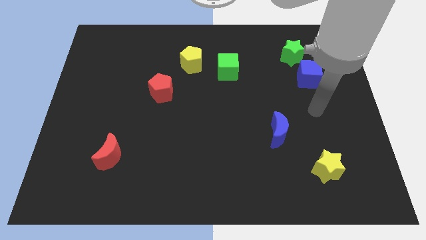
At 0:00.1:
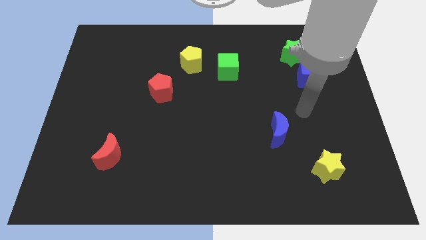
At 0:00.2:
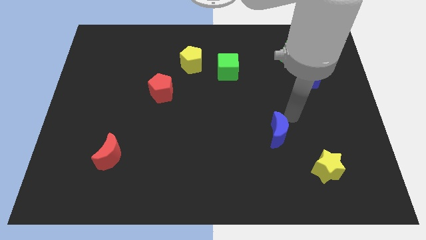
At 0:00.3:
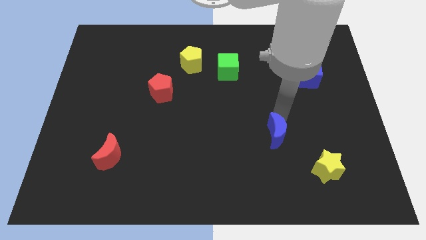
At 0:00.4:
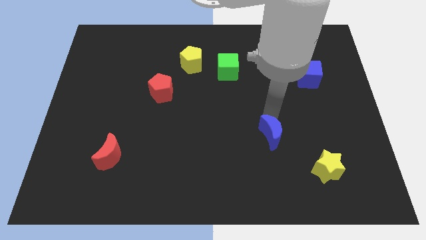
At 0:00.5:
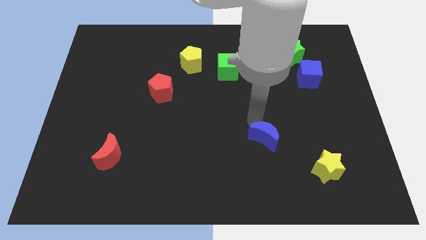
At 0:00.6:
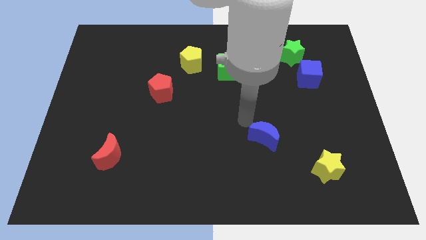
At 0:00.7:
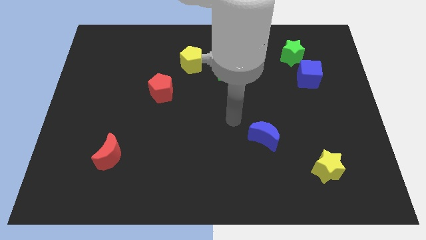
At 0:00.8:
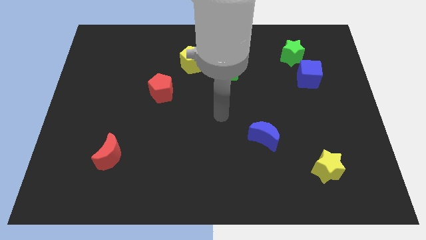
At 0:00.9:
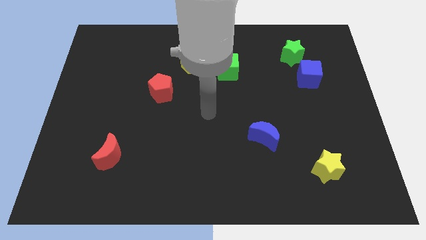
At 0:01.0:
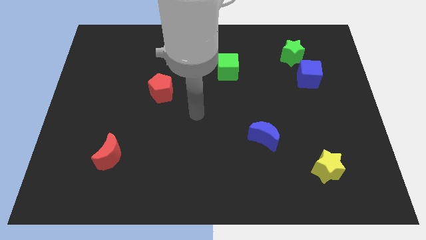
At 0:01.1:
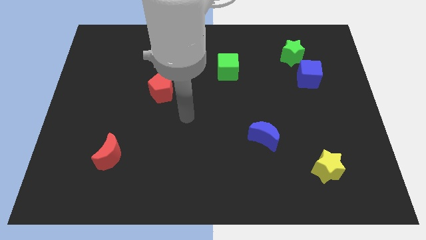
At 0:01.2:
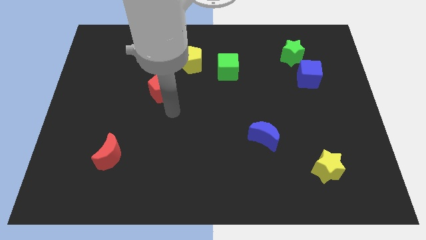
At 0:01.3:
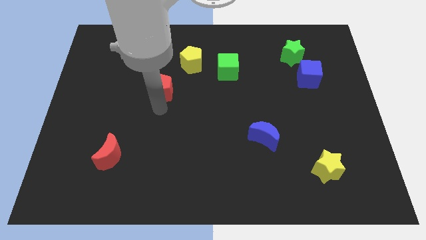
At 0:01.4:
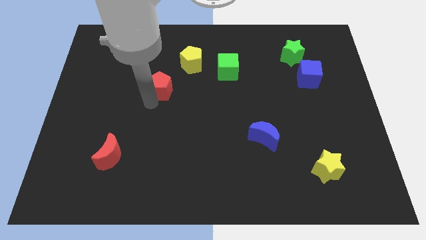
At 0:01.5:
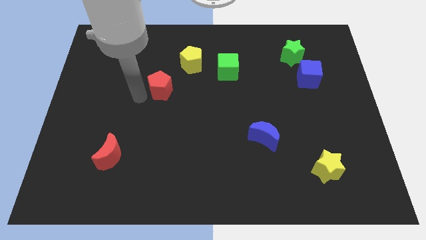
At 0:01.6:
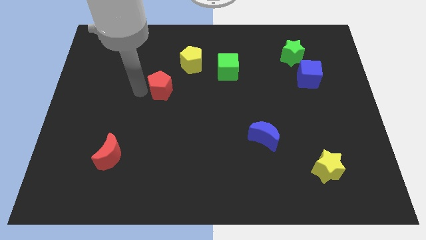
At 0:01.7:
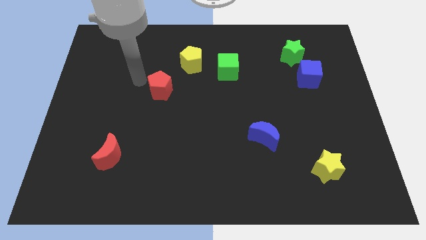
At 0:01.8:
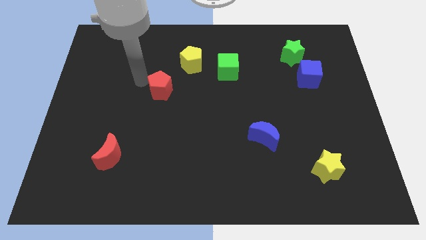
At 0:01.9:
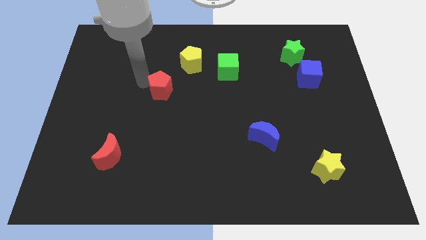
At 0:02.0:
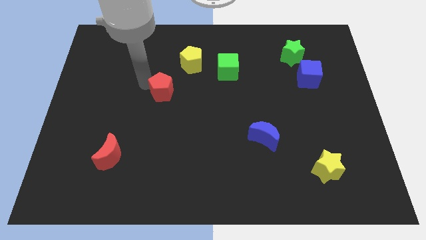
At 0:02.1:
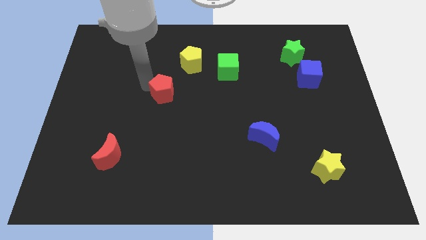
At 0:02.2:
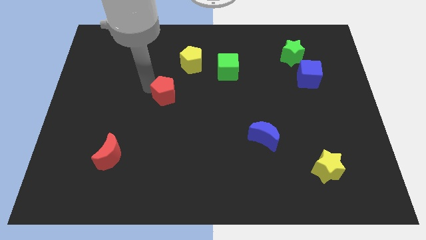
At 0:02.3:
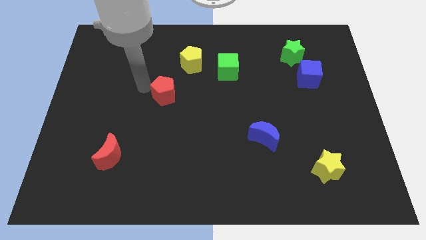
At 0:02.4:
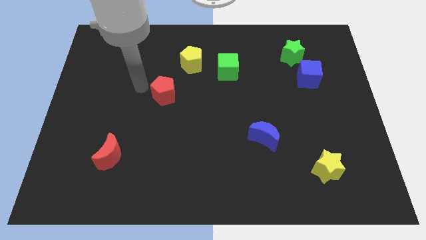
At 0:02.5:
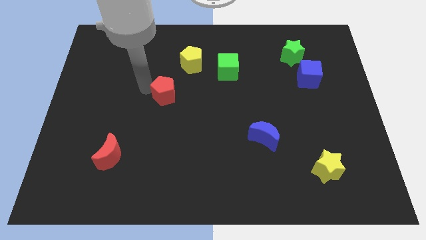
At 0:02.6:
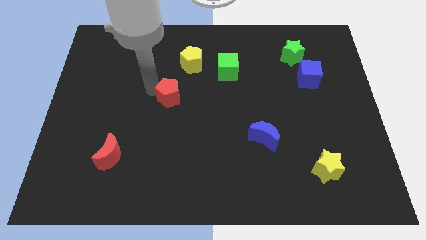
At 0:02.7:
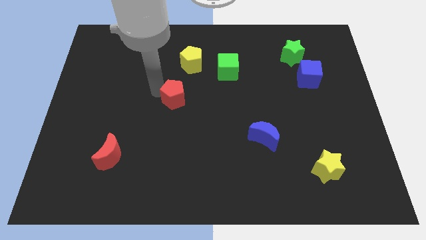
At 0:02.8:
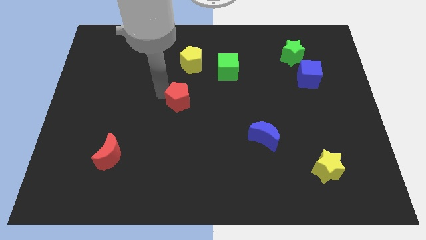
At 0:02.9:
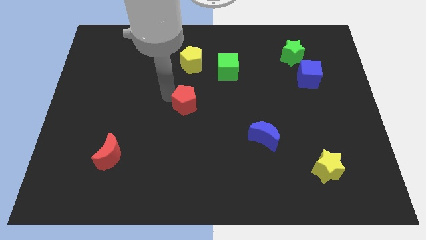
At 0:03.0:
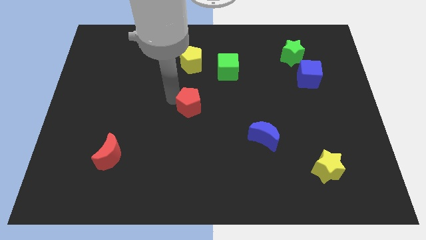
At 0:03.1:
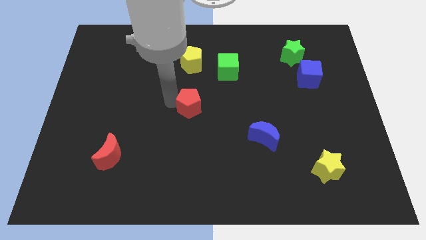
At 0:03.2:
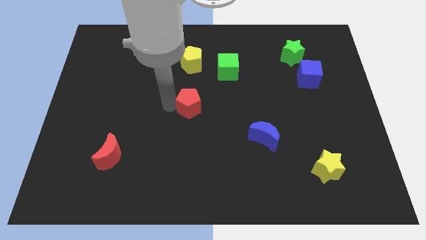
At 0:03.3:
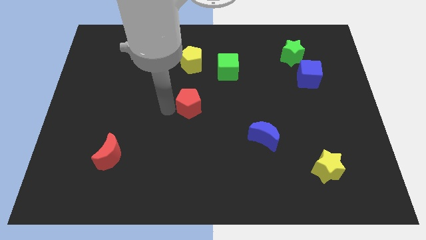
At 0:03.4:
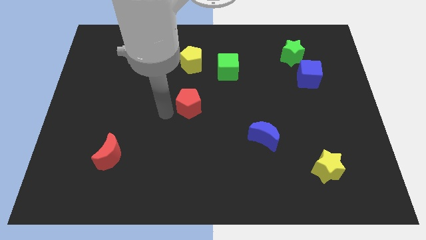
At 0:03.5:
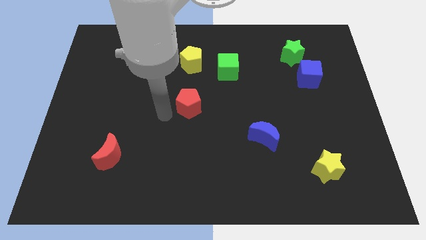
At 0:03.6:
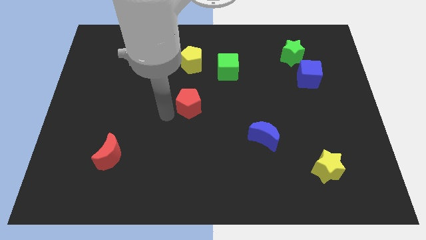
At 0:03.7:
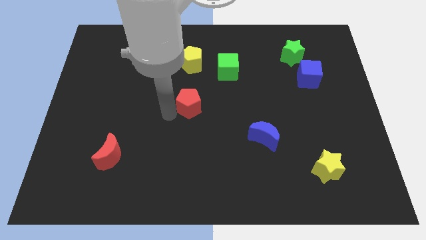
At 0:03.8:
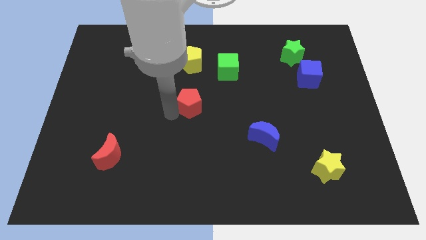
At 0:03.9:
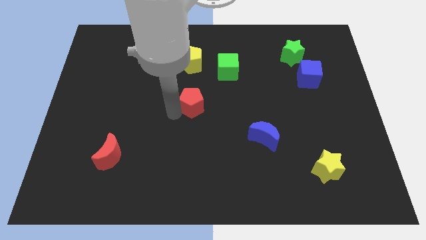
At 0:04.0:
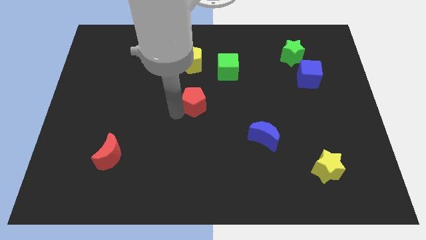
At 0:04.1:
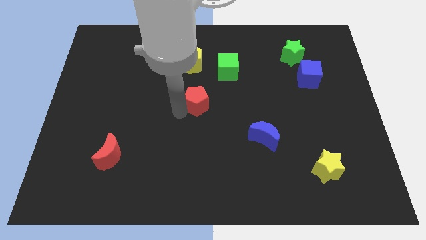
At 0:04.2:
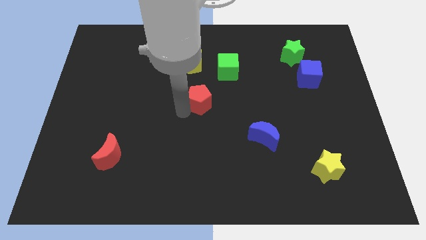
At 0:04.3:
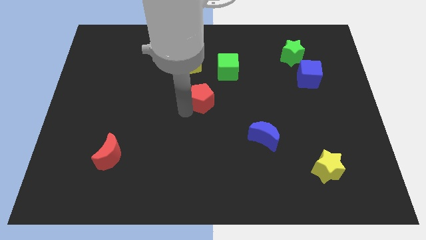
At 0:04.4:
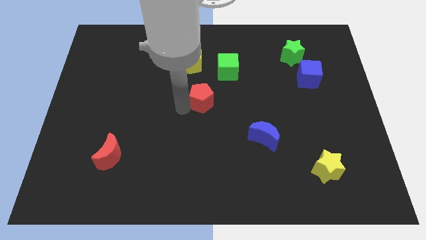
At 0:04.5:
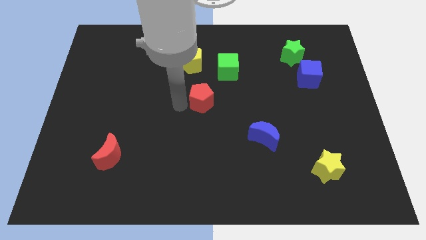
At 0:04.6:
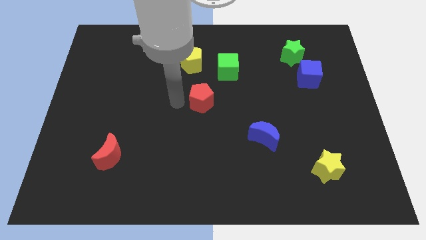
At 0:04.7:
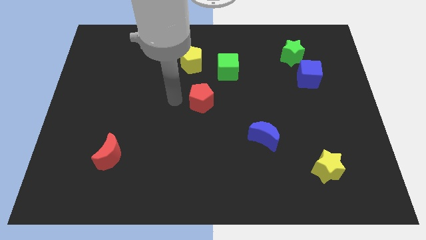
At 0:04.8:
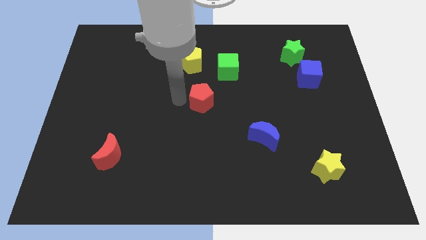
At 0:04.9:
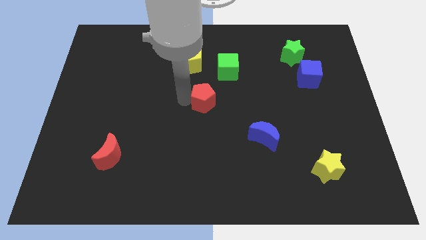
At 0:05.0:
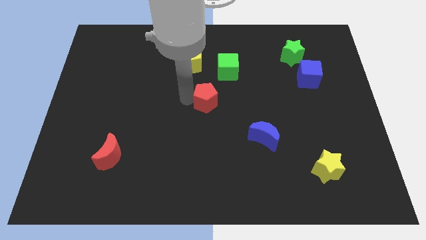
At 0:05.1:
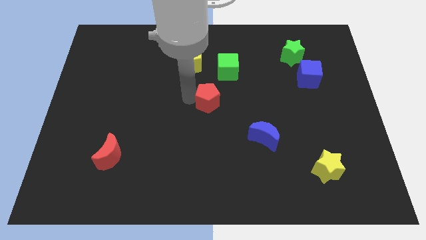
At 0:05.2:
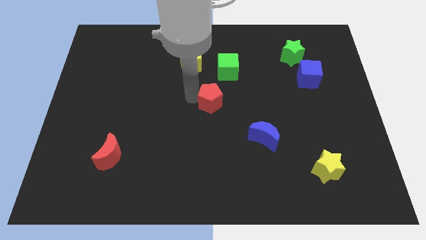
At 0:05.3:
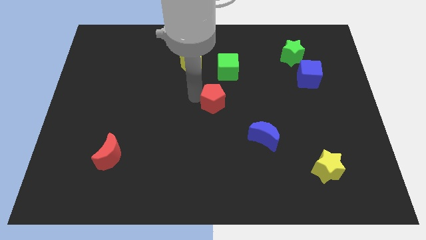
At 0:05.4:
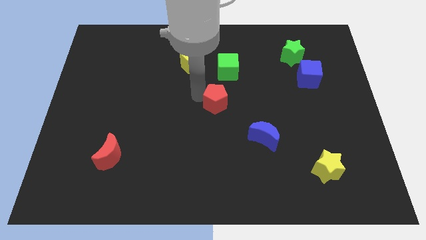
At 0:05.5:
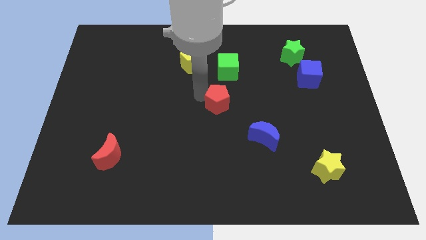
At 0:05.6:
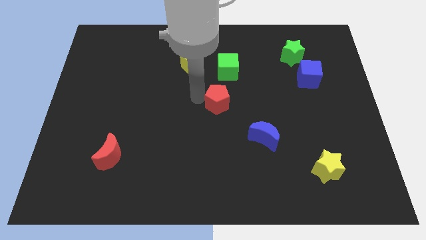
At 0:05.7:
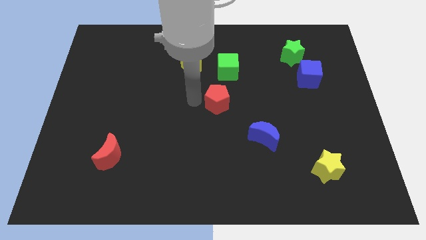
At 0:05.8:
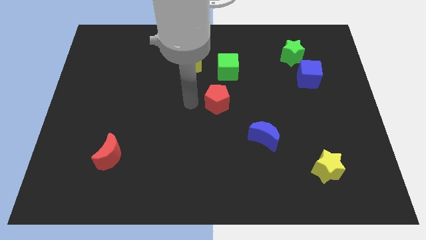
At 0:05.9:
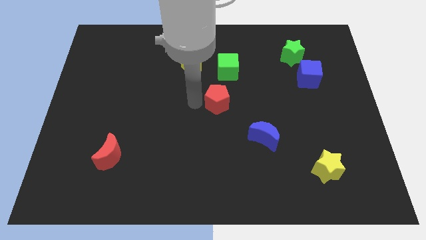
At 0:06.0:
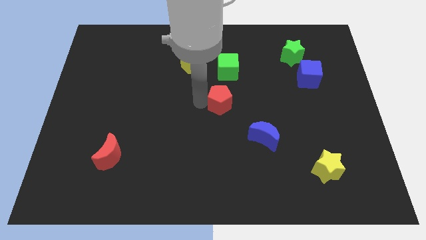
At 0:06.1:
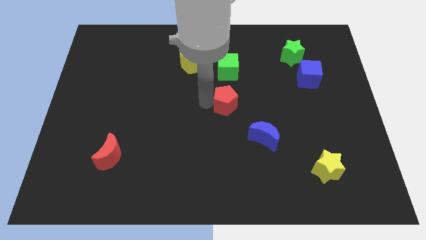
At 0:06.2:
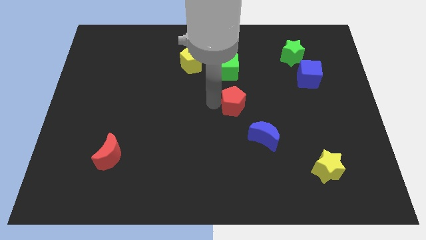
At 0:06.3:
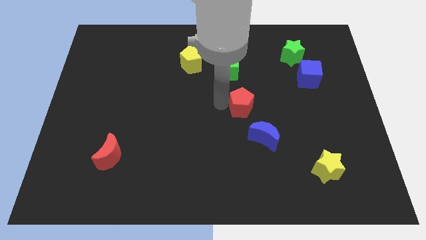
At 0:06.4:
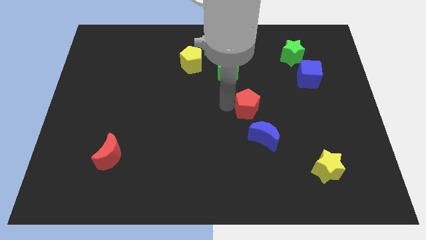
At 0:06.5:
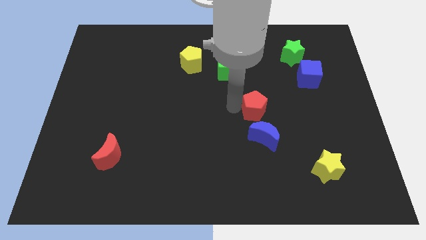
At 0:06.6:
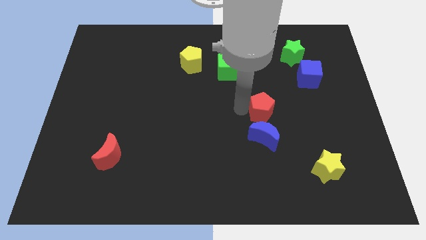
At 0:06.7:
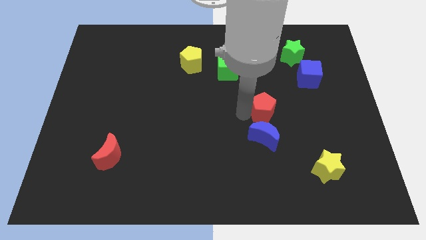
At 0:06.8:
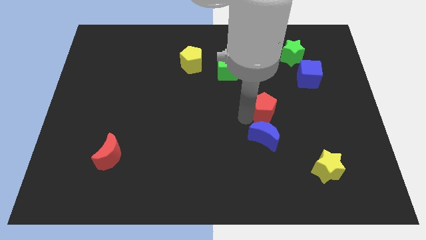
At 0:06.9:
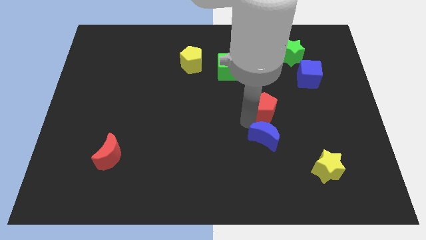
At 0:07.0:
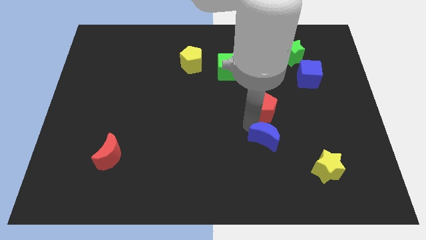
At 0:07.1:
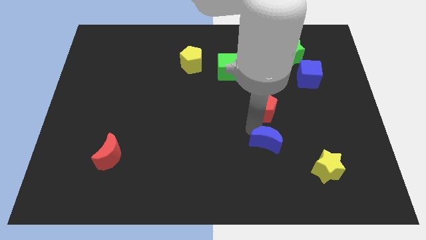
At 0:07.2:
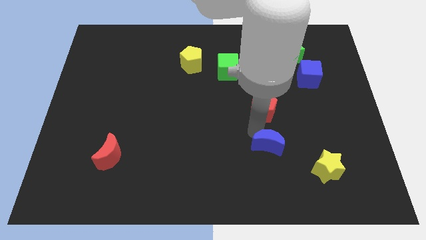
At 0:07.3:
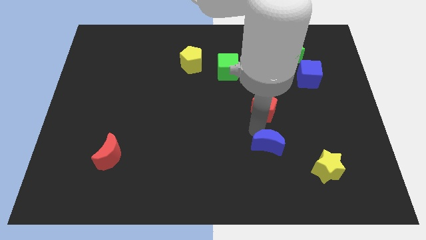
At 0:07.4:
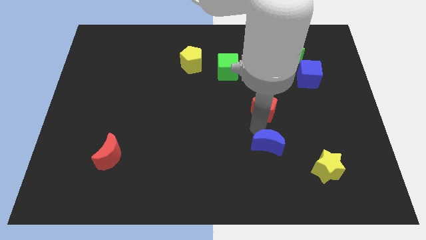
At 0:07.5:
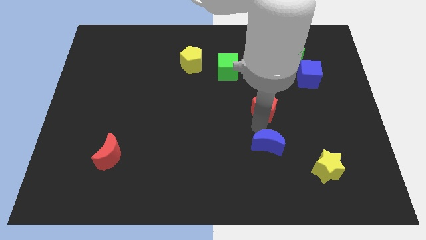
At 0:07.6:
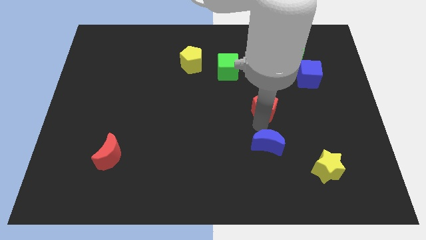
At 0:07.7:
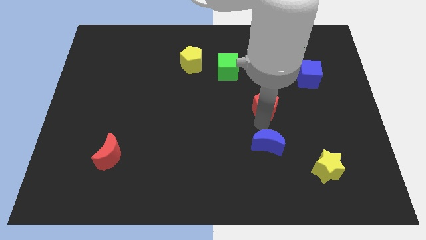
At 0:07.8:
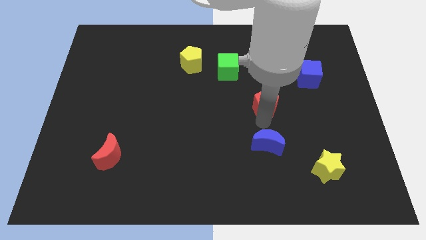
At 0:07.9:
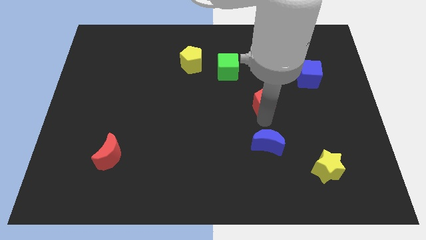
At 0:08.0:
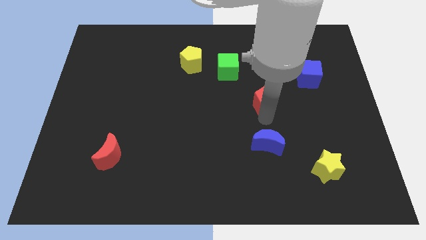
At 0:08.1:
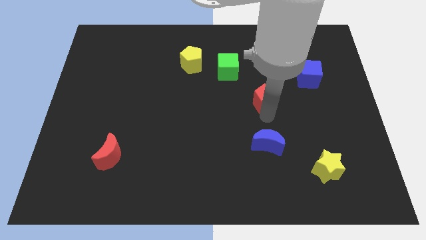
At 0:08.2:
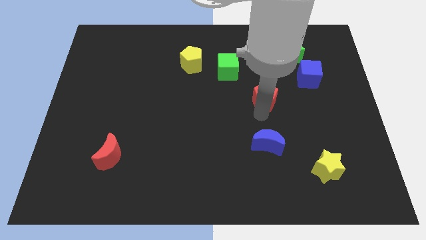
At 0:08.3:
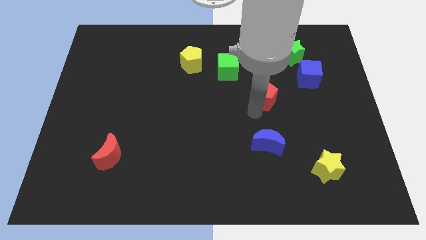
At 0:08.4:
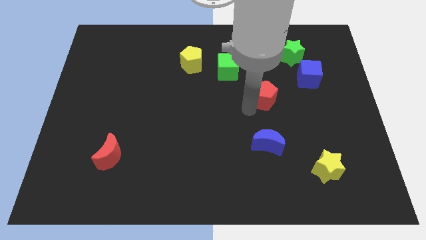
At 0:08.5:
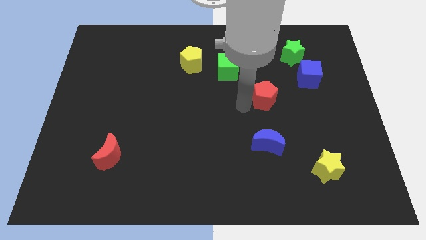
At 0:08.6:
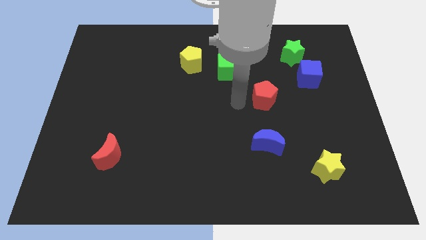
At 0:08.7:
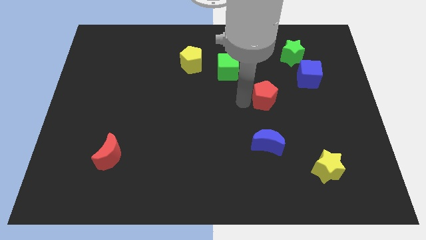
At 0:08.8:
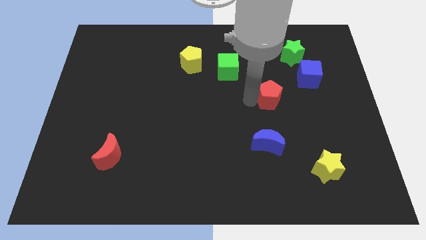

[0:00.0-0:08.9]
put the red pentagon diagonally down and to the left of the blue cube
